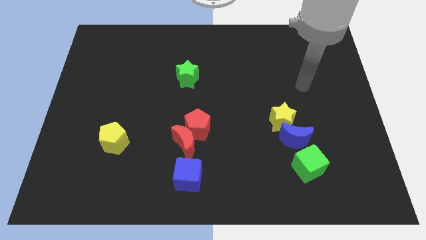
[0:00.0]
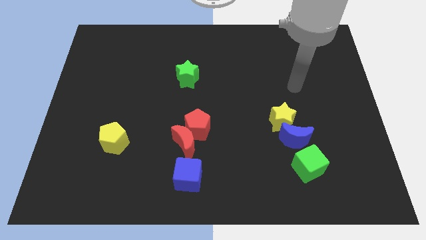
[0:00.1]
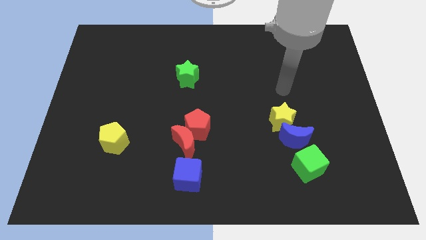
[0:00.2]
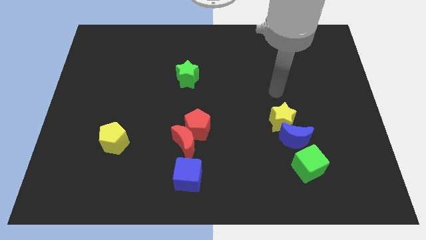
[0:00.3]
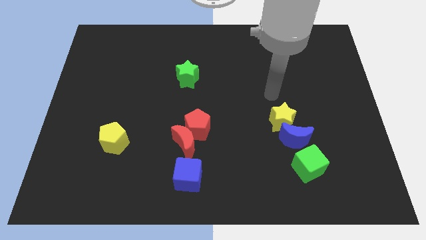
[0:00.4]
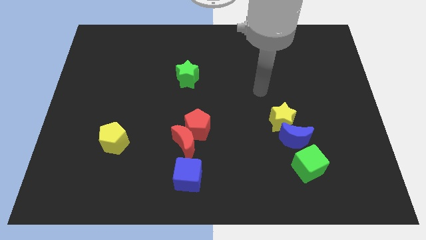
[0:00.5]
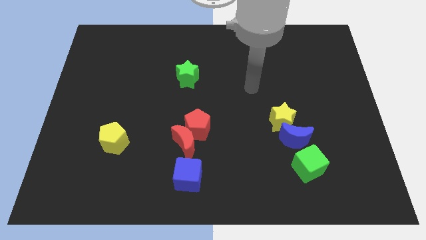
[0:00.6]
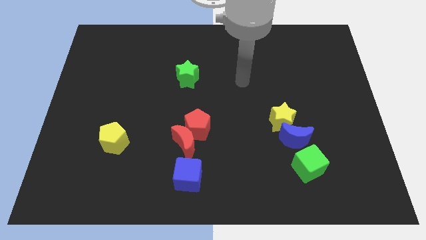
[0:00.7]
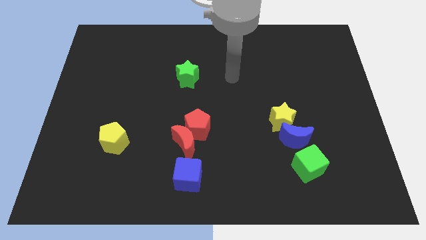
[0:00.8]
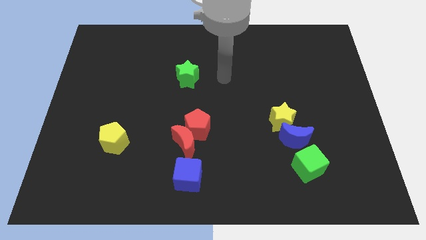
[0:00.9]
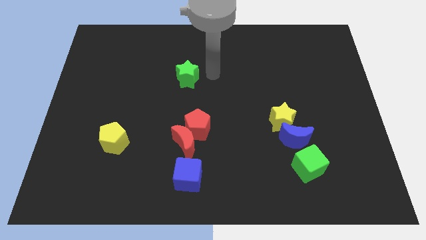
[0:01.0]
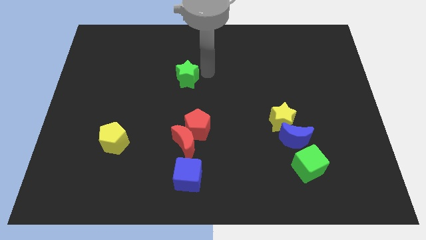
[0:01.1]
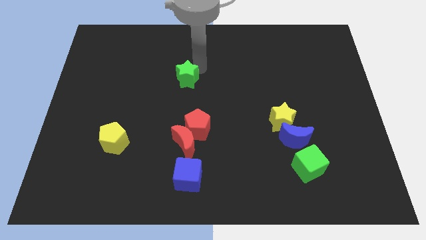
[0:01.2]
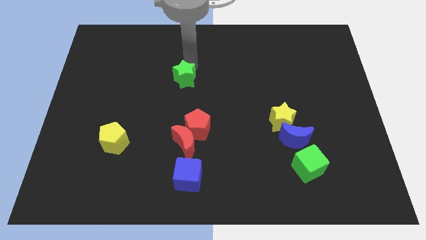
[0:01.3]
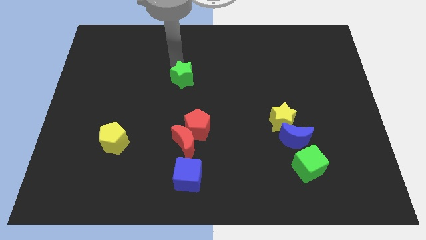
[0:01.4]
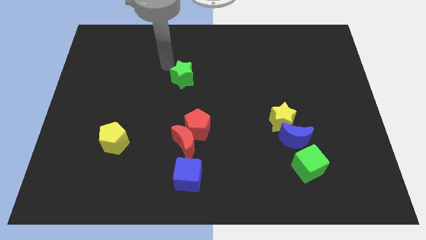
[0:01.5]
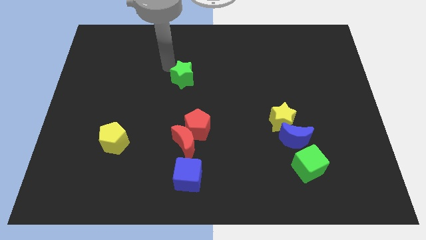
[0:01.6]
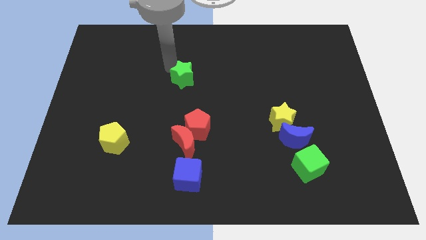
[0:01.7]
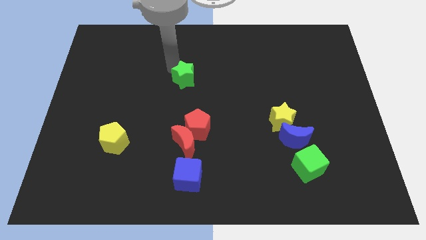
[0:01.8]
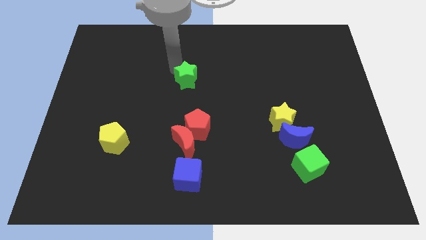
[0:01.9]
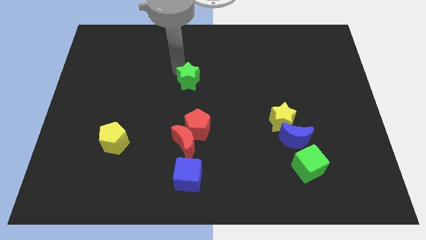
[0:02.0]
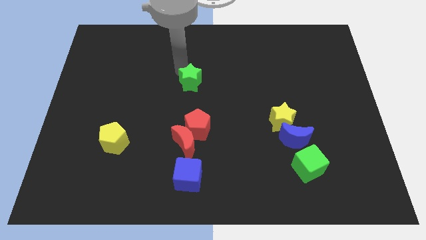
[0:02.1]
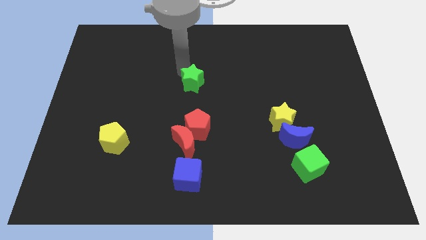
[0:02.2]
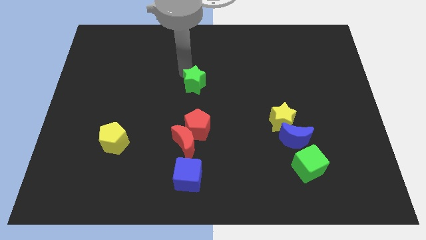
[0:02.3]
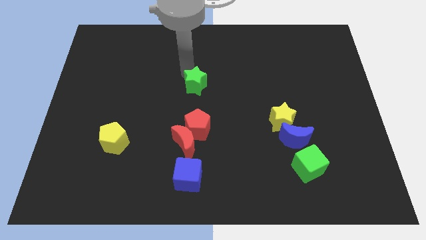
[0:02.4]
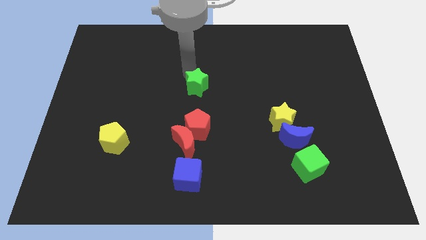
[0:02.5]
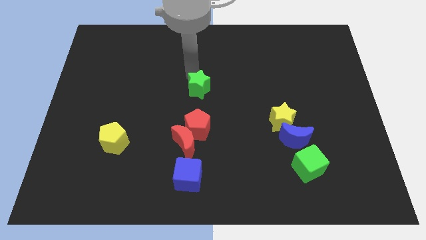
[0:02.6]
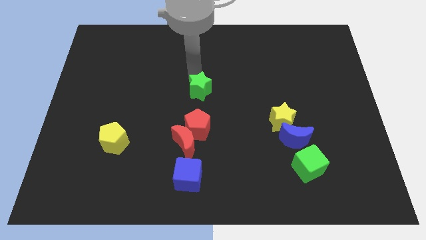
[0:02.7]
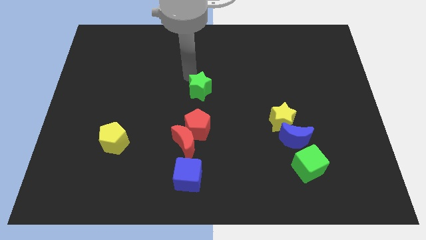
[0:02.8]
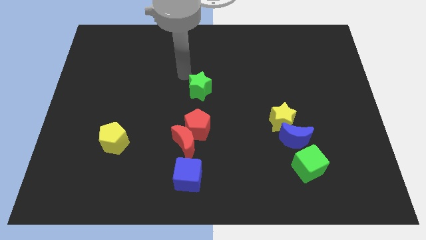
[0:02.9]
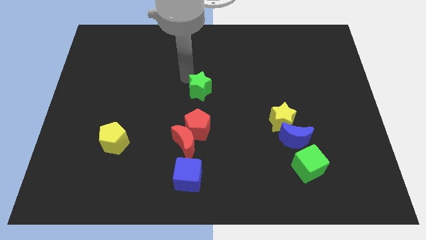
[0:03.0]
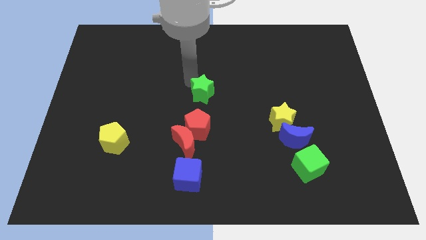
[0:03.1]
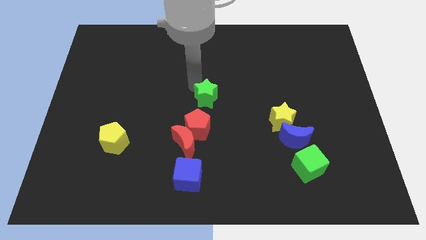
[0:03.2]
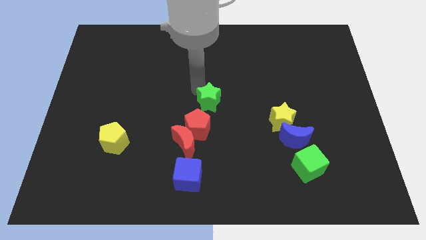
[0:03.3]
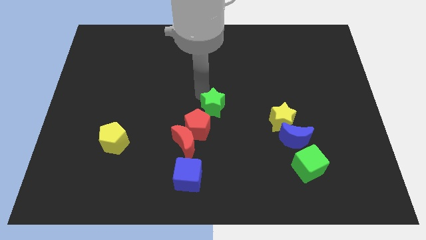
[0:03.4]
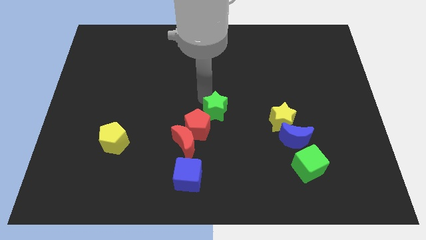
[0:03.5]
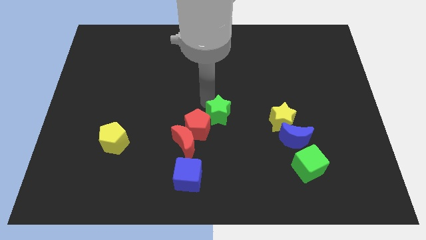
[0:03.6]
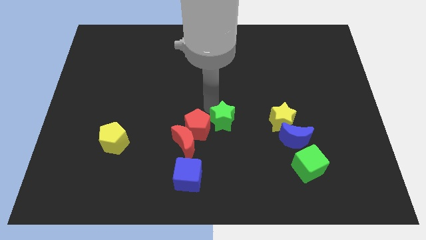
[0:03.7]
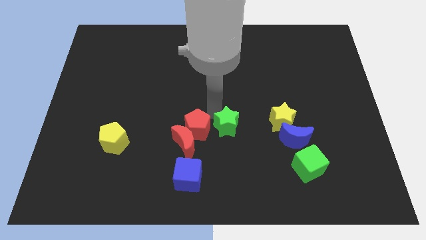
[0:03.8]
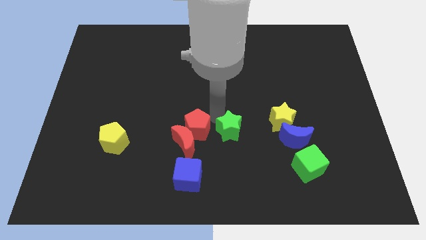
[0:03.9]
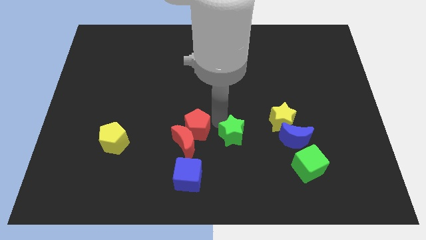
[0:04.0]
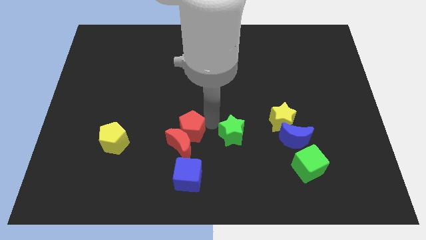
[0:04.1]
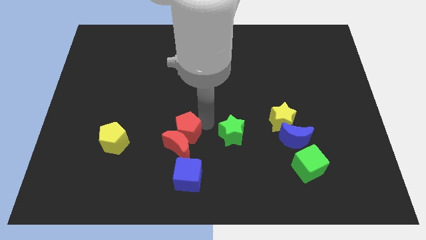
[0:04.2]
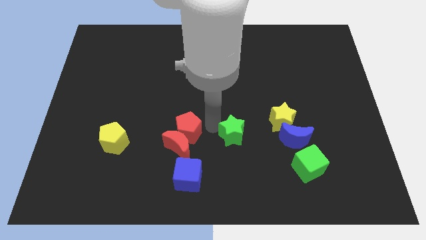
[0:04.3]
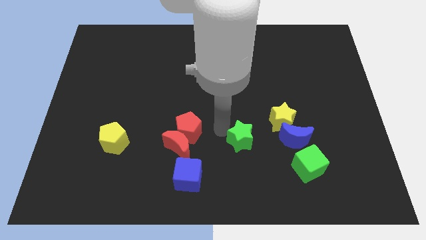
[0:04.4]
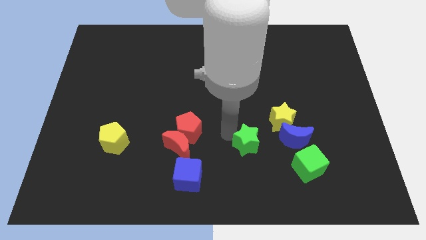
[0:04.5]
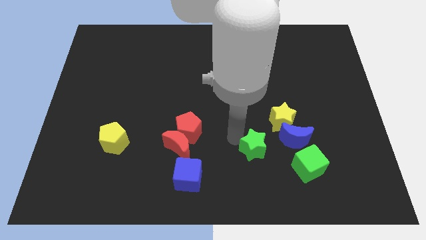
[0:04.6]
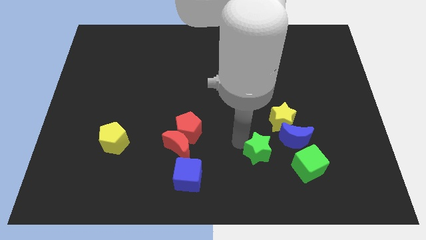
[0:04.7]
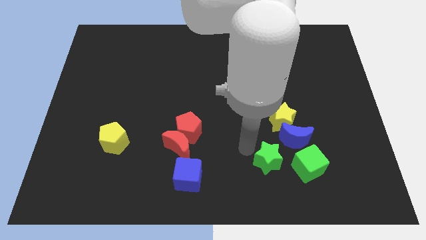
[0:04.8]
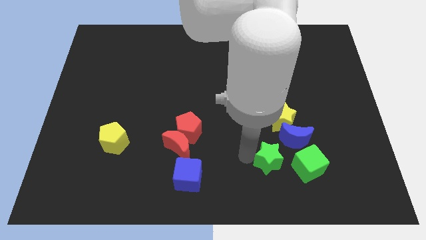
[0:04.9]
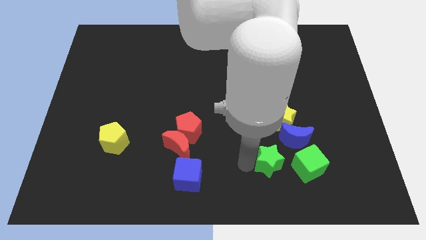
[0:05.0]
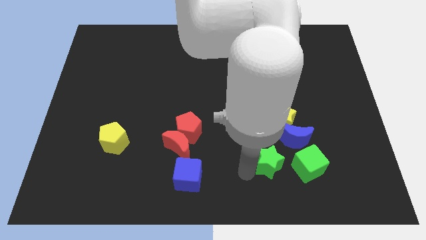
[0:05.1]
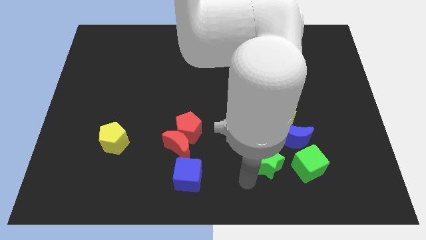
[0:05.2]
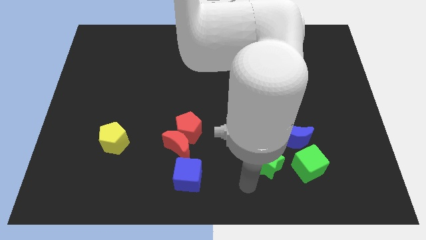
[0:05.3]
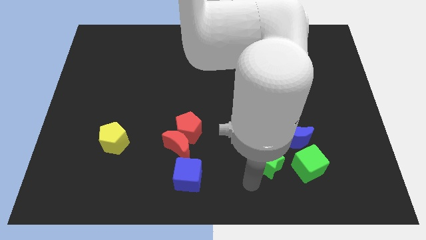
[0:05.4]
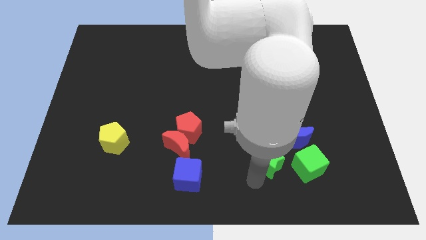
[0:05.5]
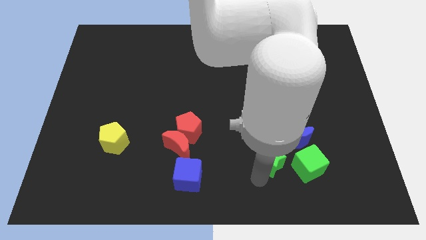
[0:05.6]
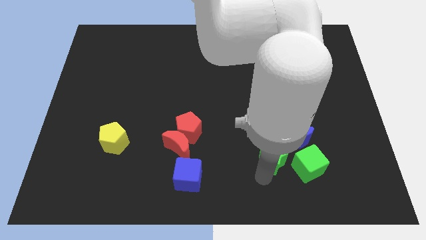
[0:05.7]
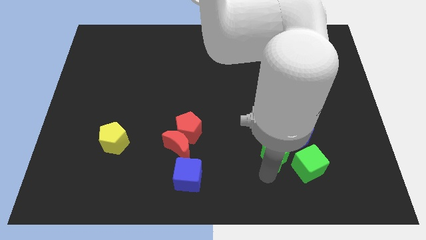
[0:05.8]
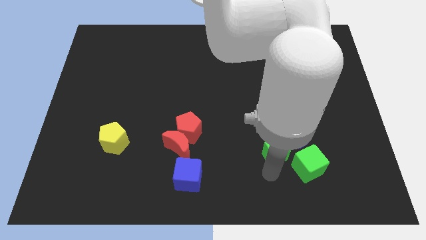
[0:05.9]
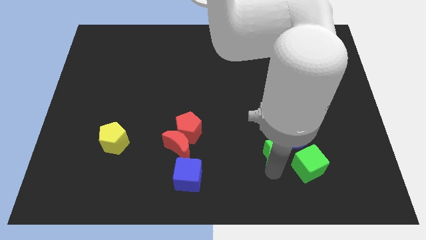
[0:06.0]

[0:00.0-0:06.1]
move the green star towards the blue moon

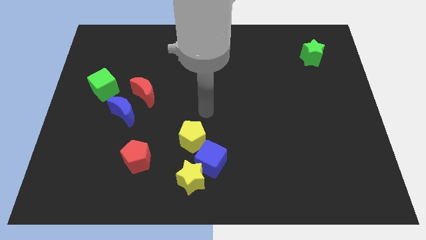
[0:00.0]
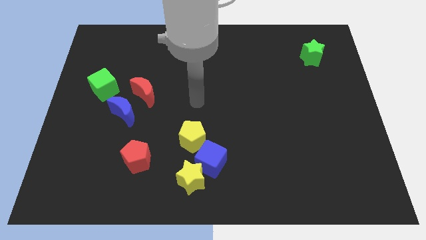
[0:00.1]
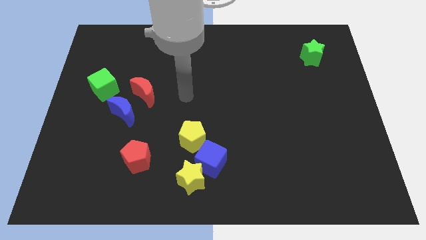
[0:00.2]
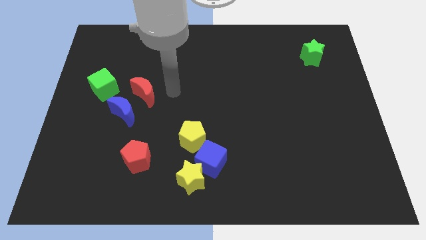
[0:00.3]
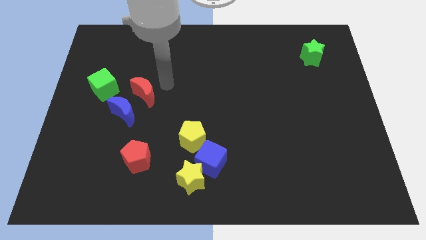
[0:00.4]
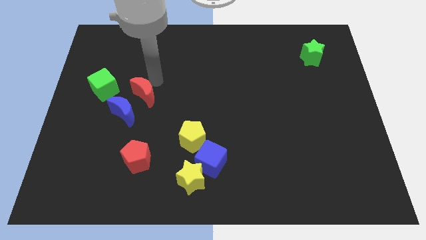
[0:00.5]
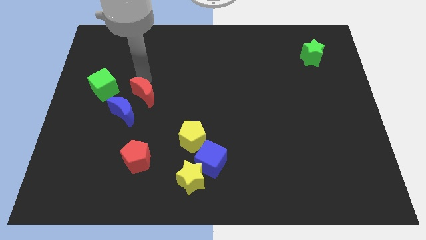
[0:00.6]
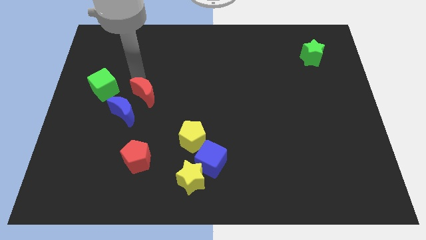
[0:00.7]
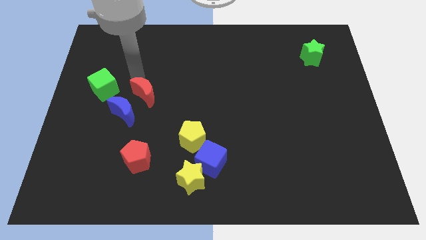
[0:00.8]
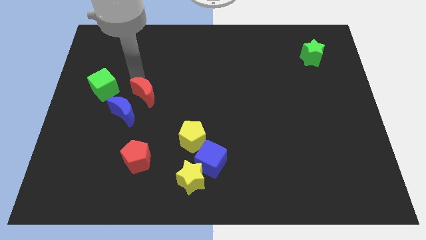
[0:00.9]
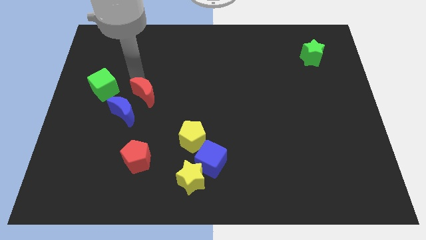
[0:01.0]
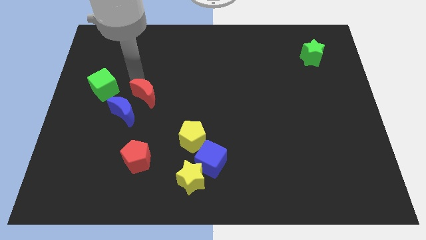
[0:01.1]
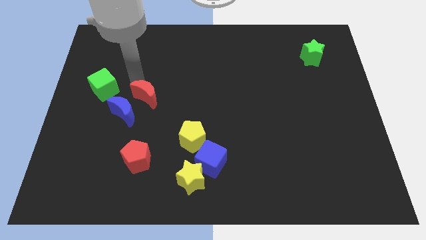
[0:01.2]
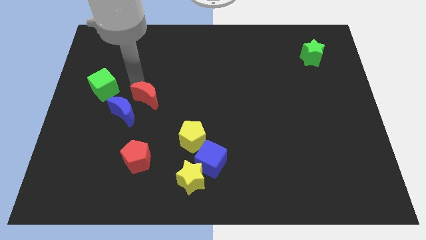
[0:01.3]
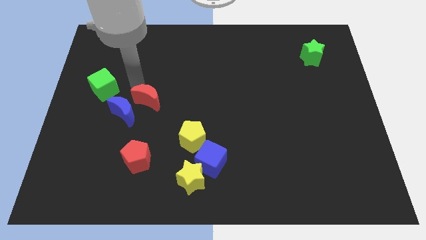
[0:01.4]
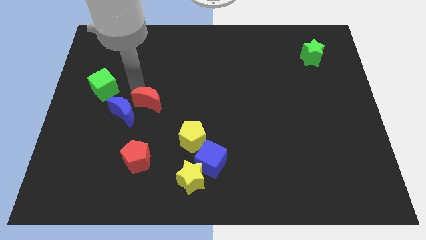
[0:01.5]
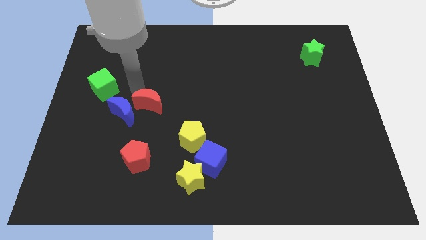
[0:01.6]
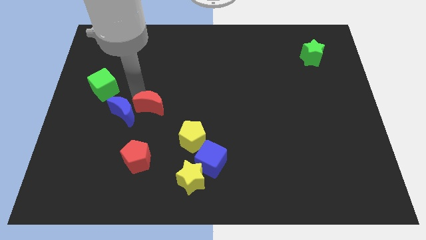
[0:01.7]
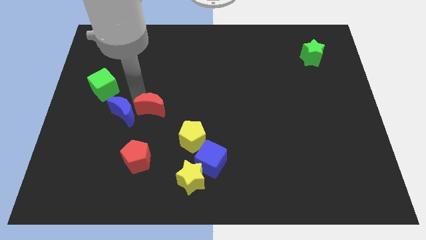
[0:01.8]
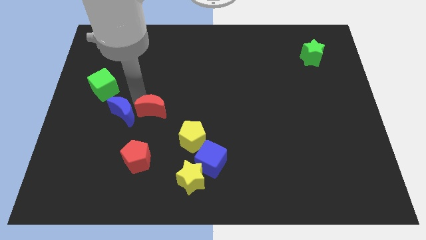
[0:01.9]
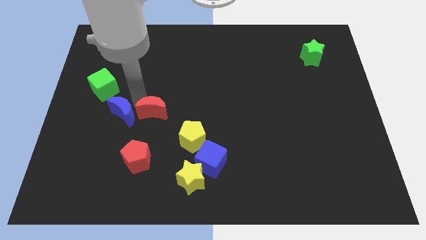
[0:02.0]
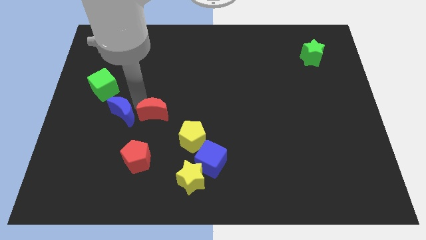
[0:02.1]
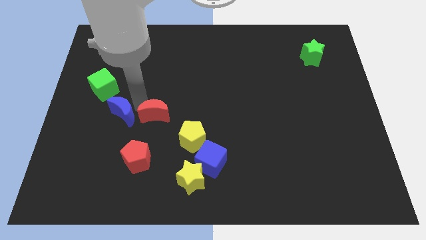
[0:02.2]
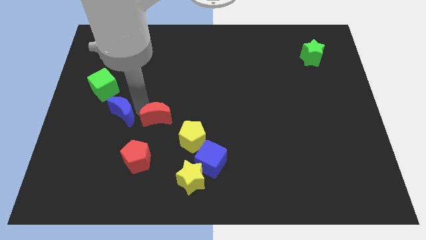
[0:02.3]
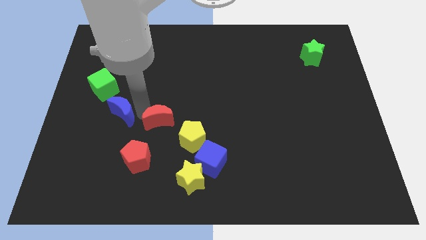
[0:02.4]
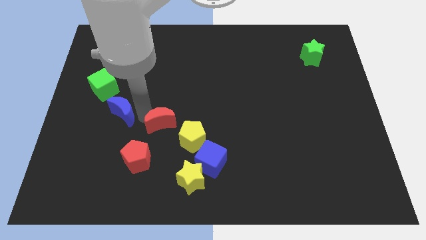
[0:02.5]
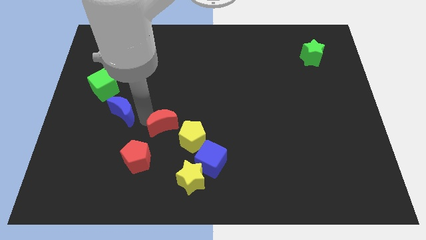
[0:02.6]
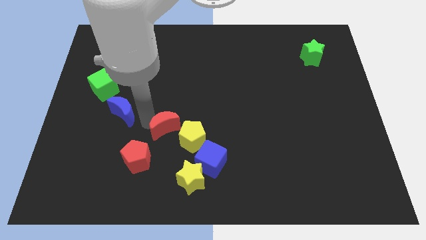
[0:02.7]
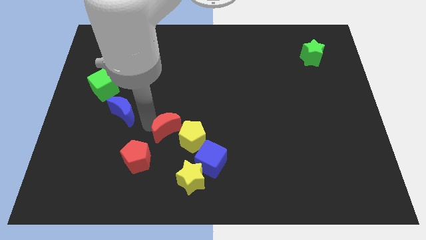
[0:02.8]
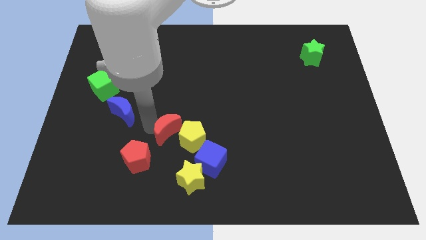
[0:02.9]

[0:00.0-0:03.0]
slide the red moon close to the yellow pentagon
